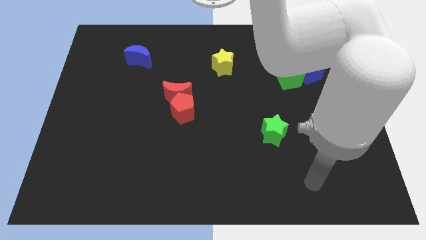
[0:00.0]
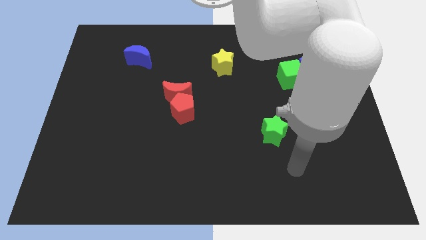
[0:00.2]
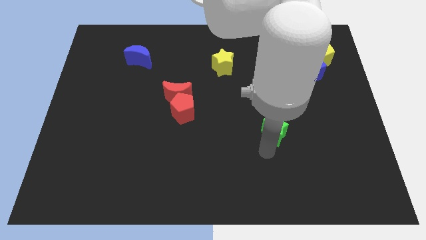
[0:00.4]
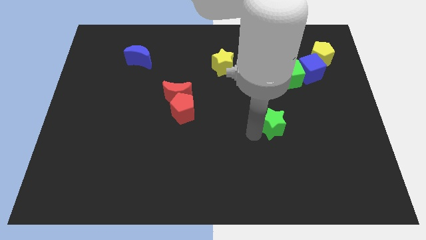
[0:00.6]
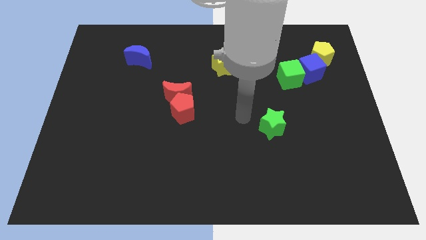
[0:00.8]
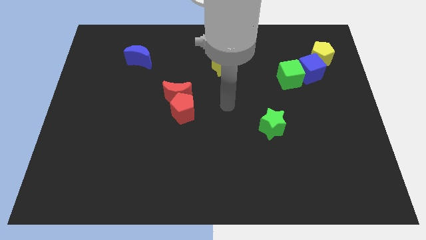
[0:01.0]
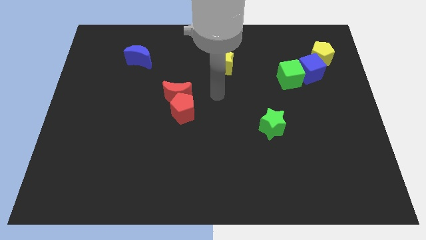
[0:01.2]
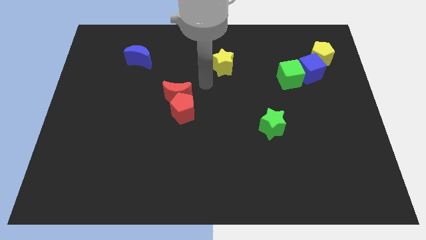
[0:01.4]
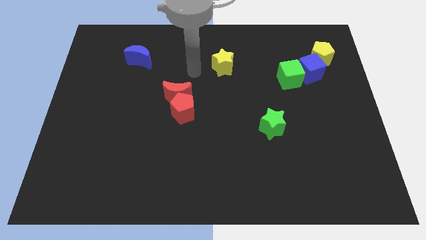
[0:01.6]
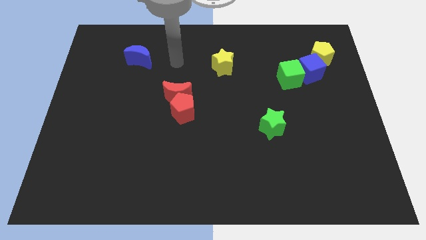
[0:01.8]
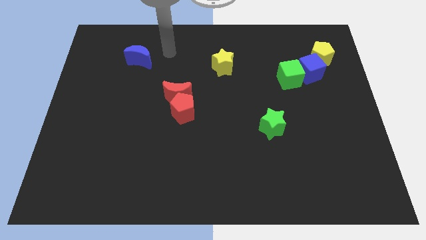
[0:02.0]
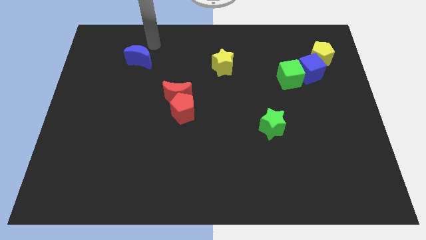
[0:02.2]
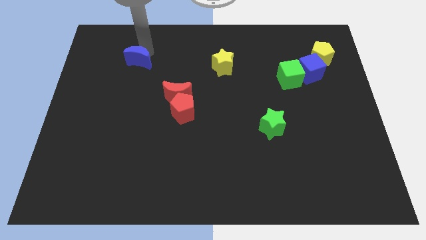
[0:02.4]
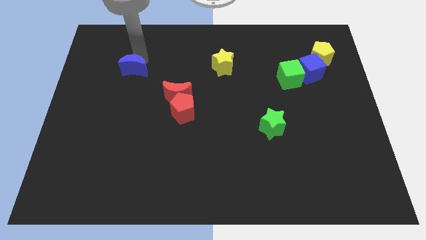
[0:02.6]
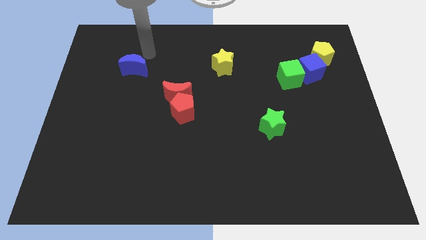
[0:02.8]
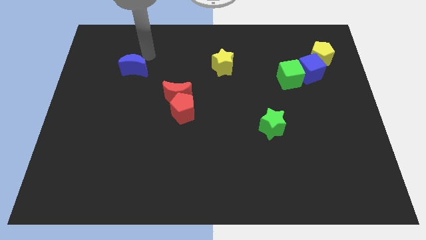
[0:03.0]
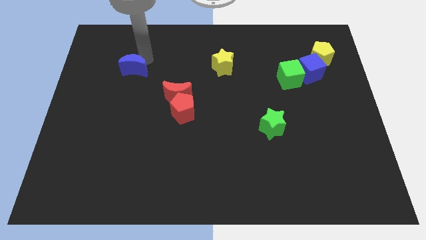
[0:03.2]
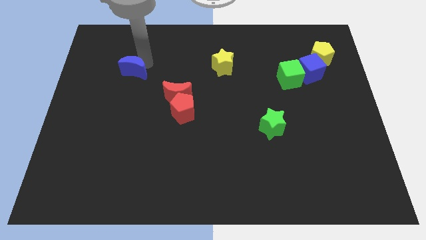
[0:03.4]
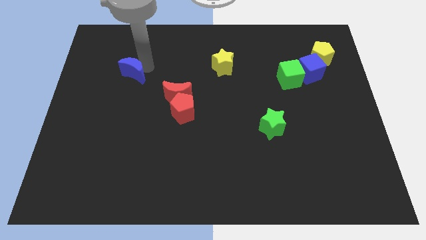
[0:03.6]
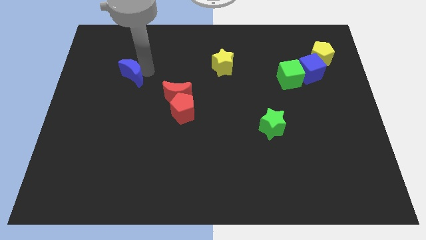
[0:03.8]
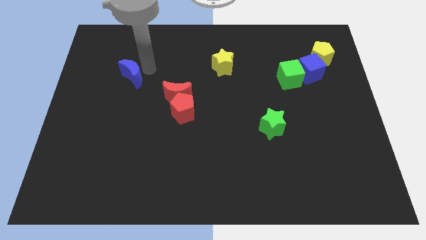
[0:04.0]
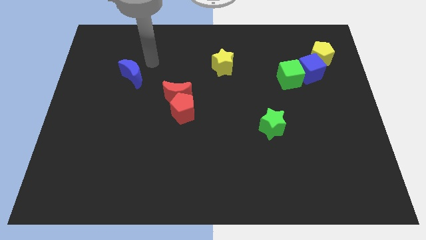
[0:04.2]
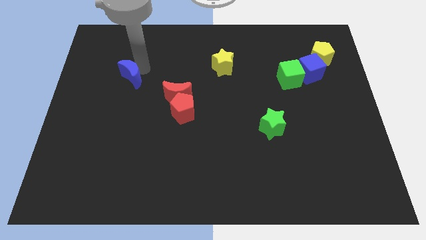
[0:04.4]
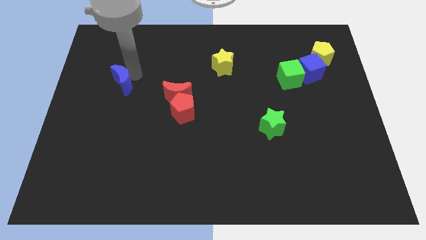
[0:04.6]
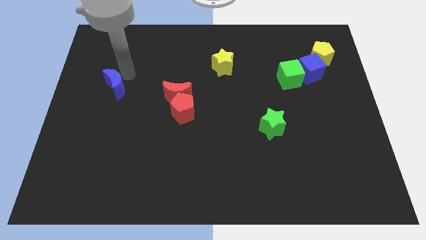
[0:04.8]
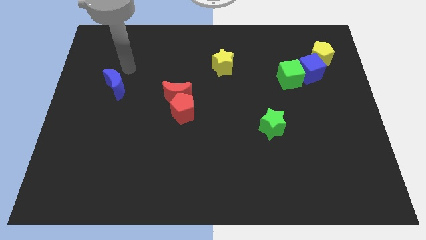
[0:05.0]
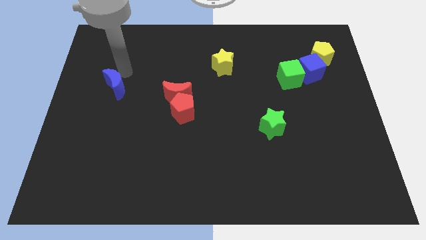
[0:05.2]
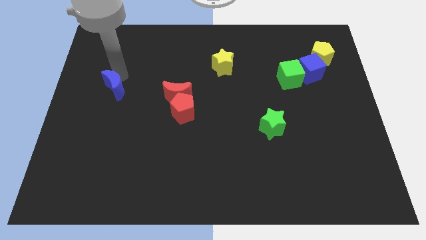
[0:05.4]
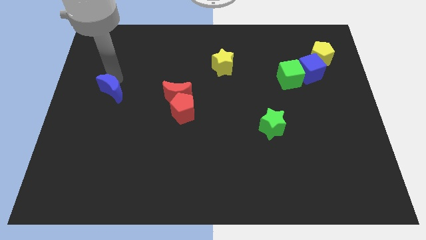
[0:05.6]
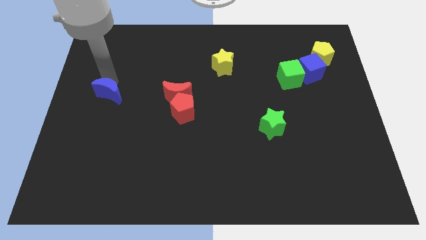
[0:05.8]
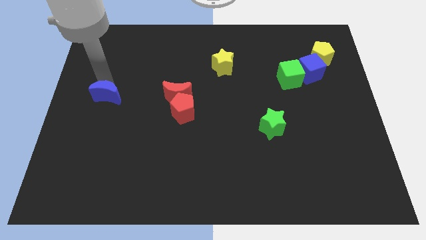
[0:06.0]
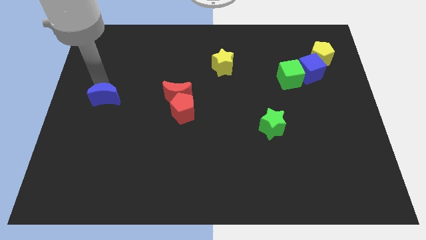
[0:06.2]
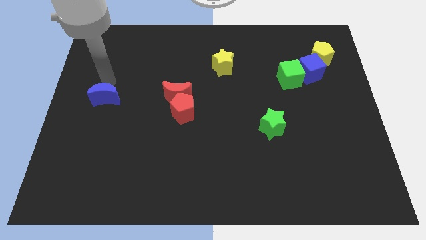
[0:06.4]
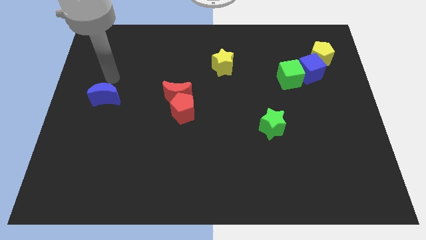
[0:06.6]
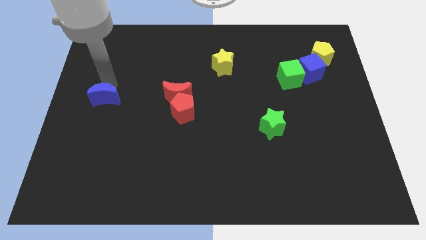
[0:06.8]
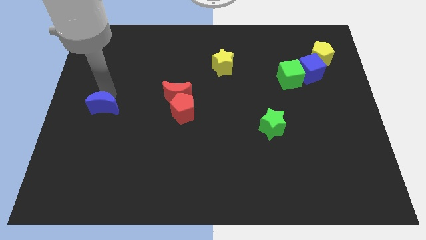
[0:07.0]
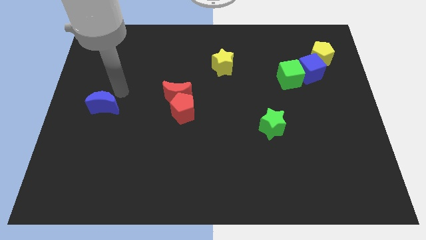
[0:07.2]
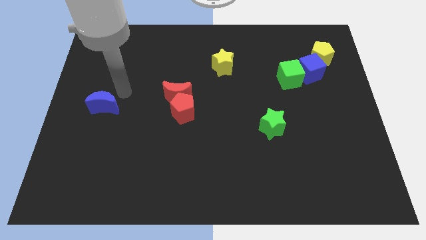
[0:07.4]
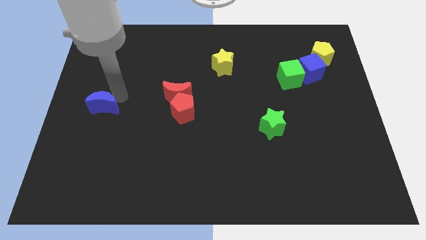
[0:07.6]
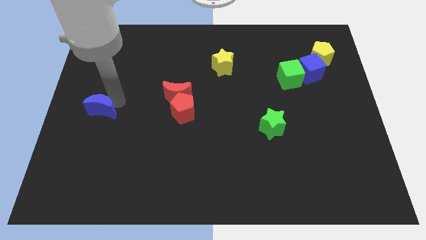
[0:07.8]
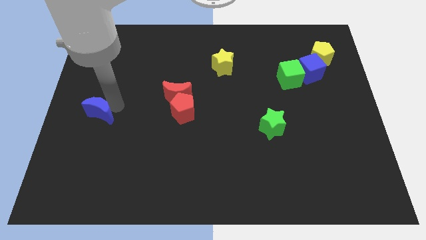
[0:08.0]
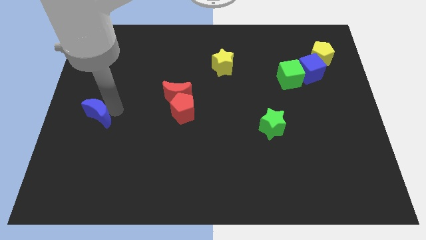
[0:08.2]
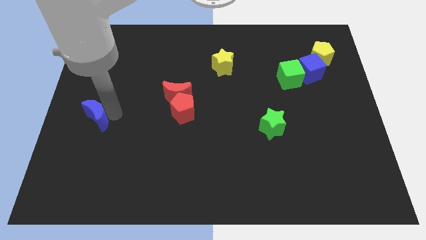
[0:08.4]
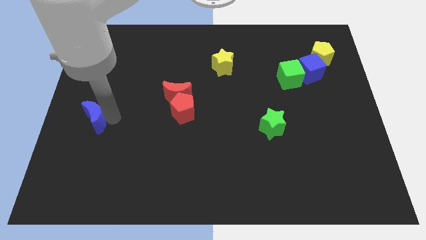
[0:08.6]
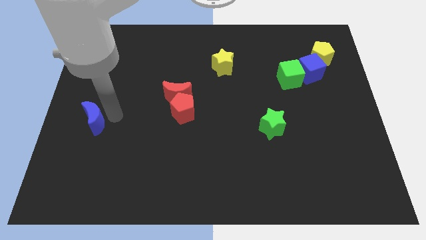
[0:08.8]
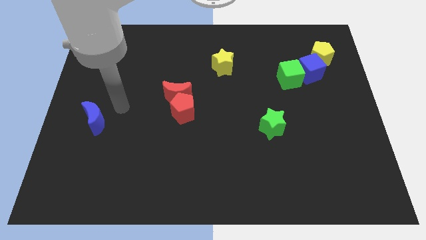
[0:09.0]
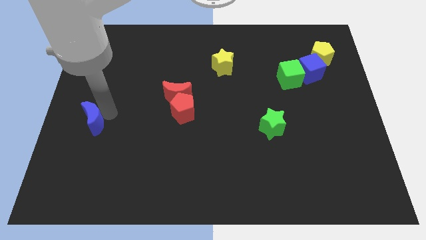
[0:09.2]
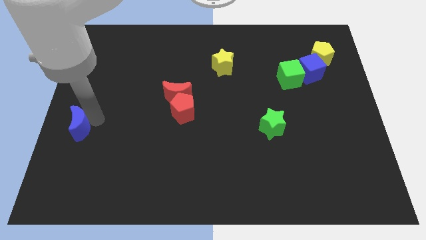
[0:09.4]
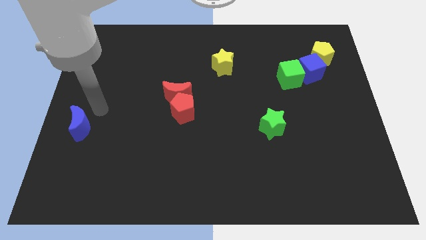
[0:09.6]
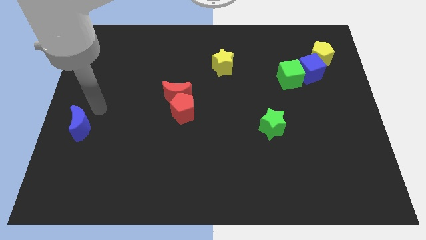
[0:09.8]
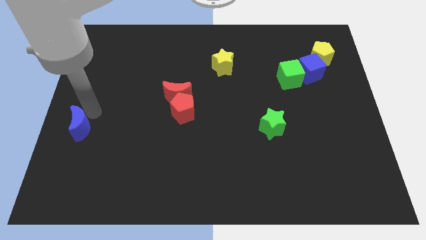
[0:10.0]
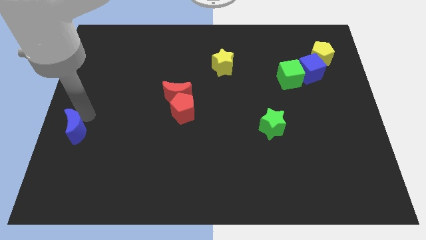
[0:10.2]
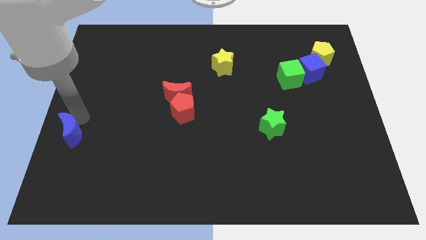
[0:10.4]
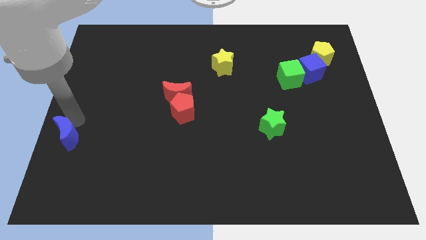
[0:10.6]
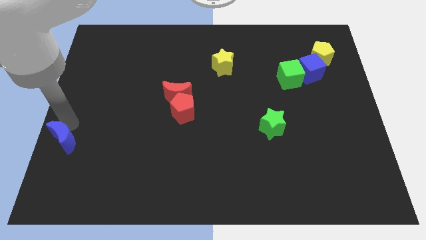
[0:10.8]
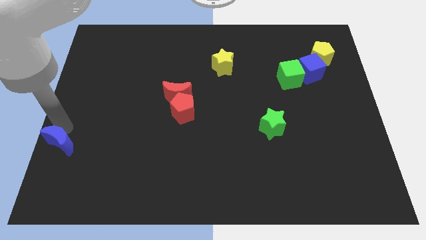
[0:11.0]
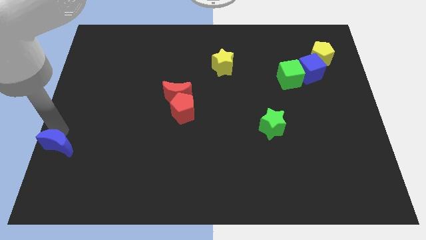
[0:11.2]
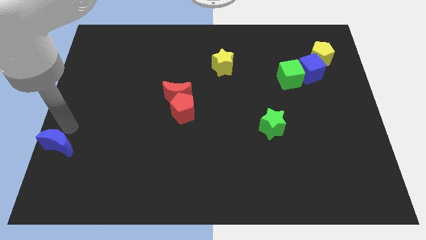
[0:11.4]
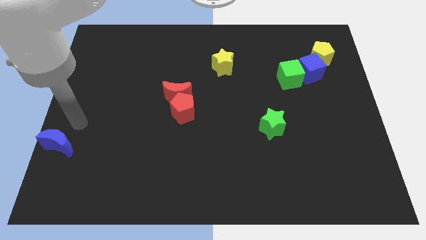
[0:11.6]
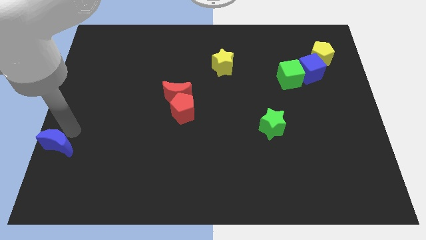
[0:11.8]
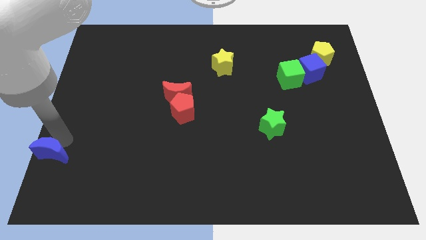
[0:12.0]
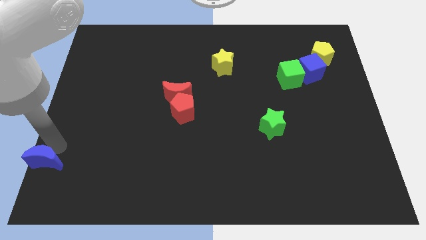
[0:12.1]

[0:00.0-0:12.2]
move the blue moon to the bottom left

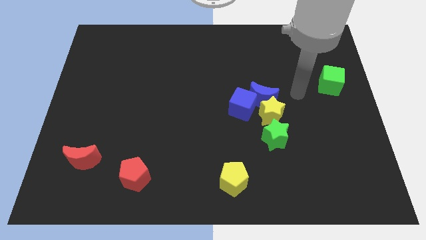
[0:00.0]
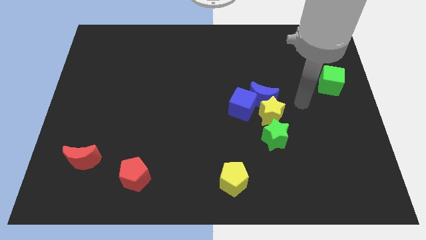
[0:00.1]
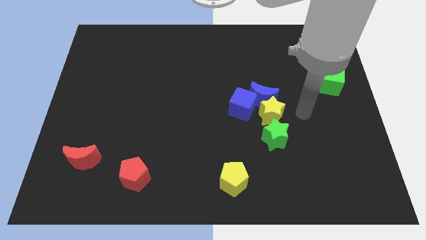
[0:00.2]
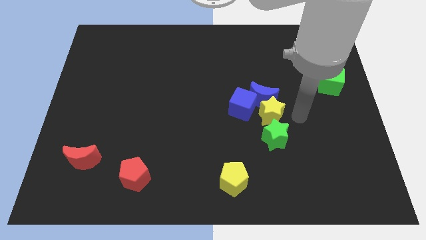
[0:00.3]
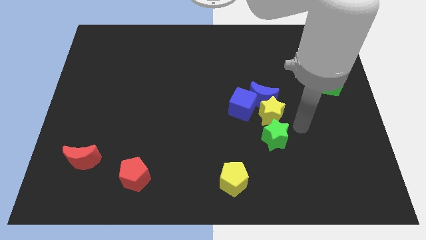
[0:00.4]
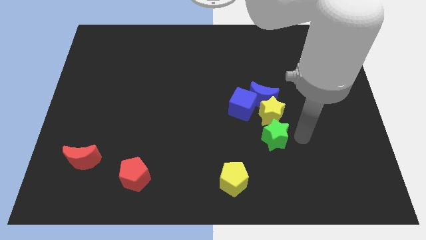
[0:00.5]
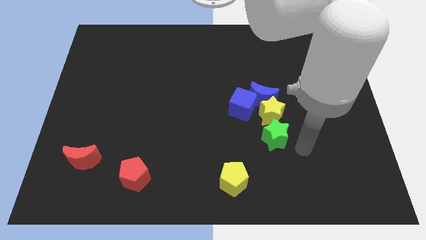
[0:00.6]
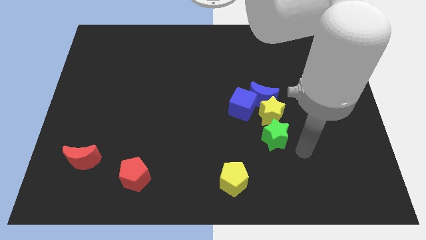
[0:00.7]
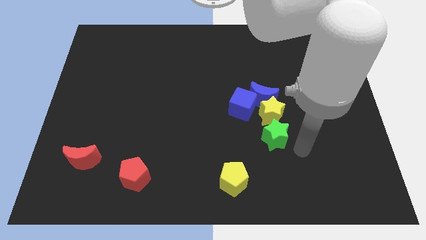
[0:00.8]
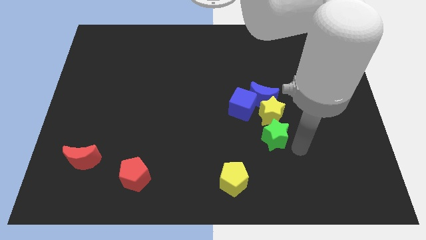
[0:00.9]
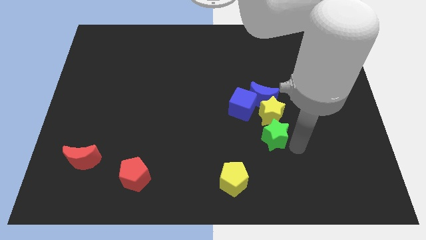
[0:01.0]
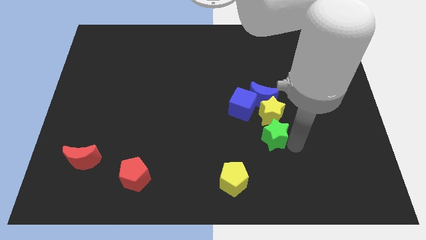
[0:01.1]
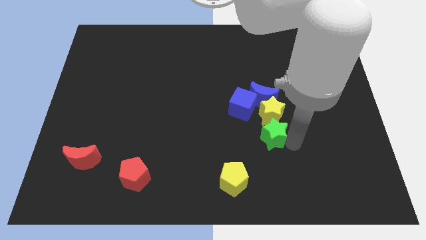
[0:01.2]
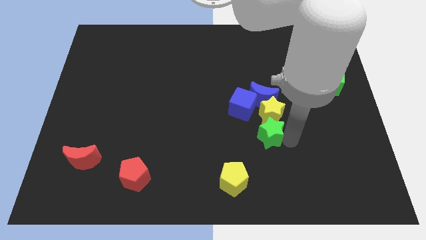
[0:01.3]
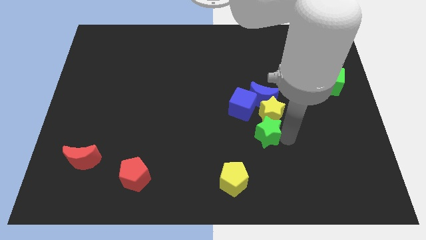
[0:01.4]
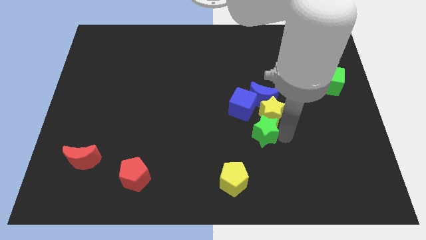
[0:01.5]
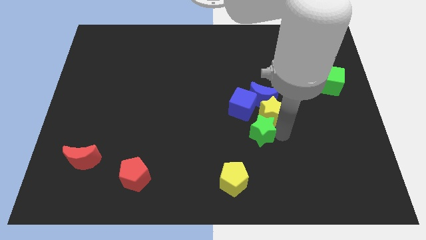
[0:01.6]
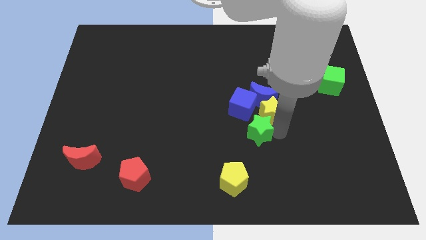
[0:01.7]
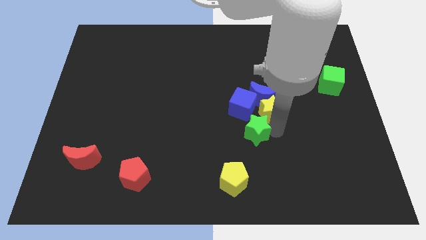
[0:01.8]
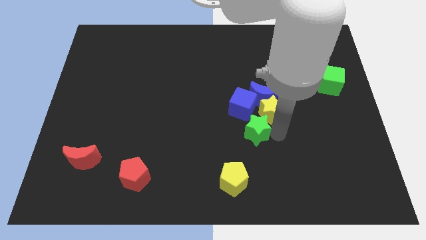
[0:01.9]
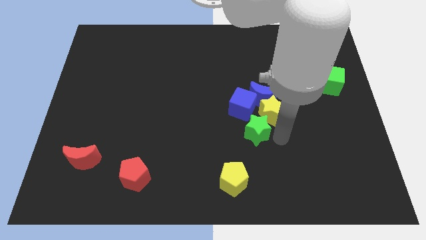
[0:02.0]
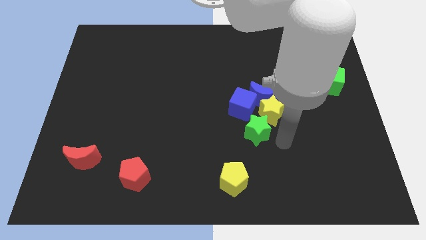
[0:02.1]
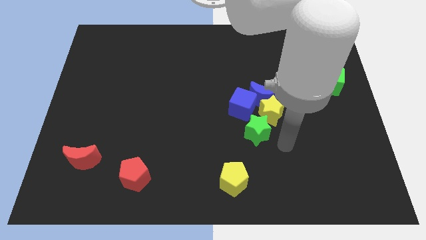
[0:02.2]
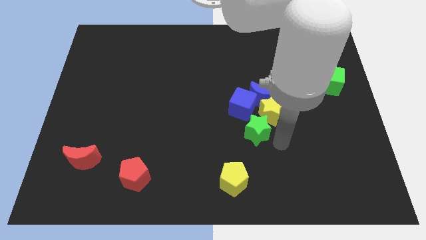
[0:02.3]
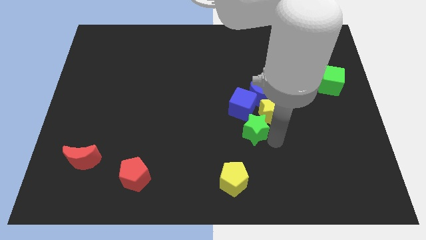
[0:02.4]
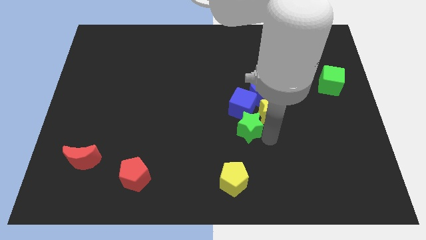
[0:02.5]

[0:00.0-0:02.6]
slide the green star to the center
